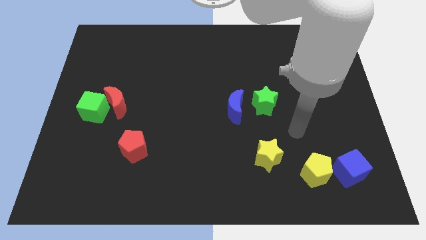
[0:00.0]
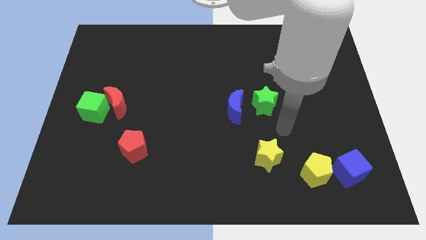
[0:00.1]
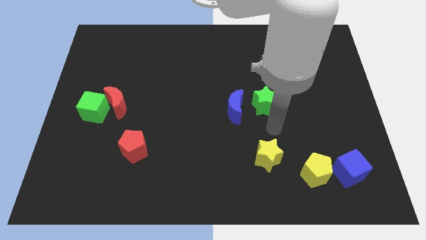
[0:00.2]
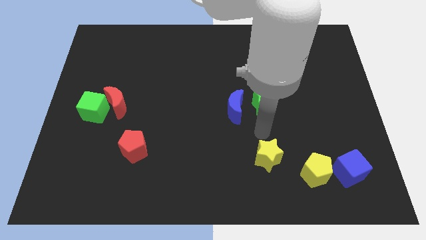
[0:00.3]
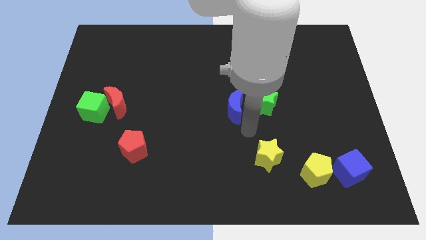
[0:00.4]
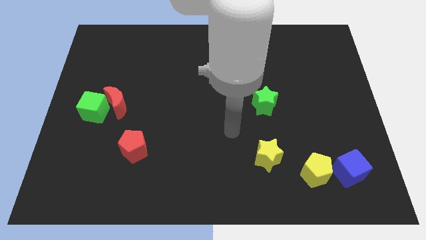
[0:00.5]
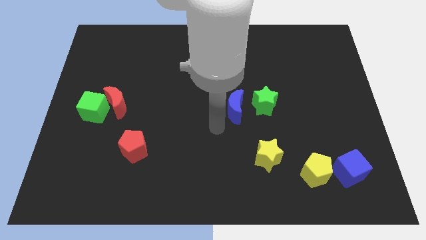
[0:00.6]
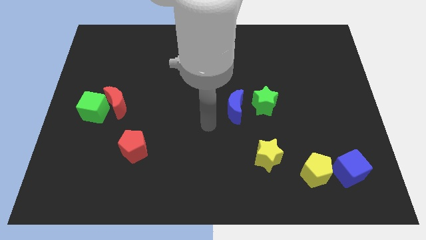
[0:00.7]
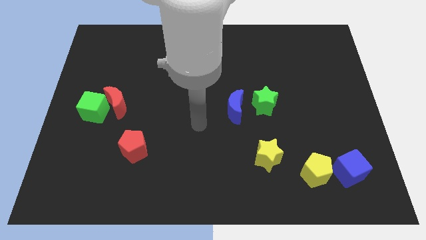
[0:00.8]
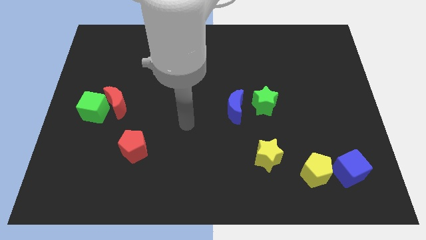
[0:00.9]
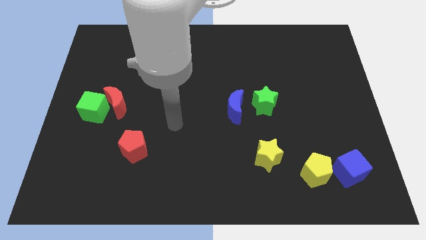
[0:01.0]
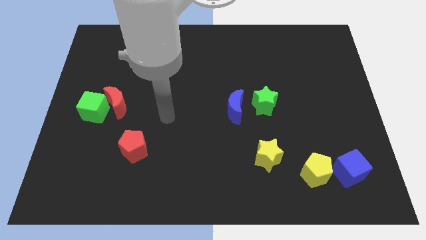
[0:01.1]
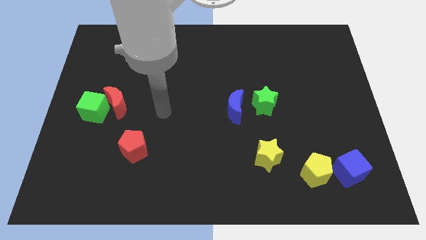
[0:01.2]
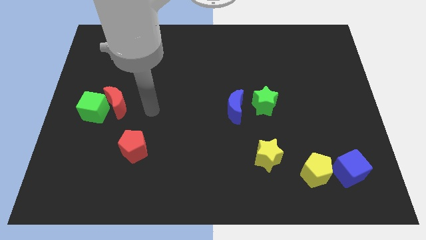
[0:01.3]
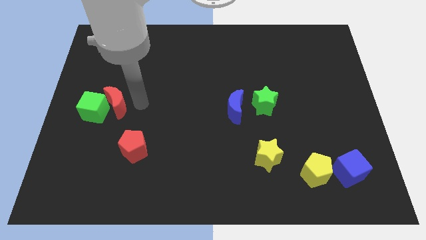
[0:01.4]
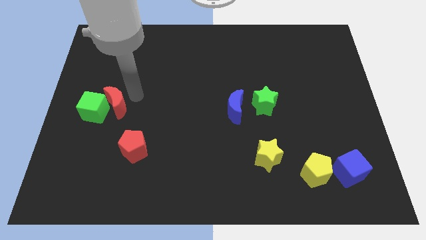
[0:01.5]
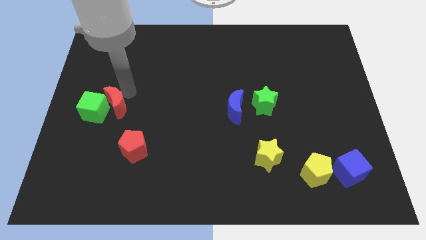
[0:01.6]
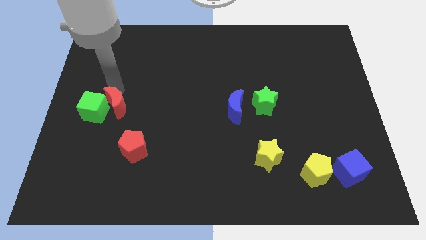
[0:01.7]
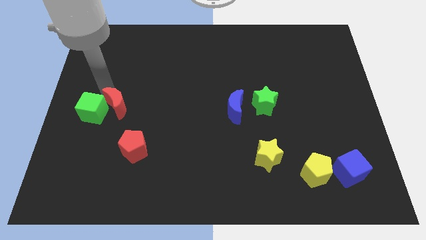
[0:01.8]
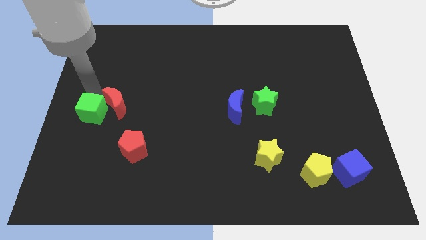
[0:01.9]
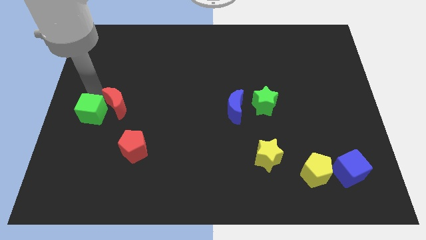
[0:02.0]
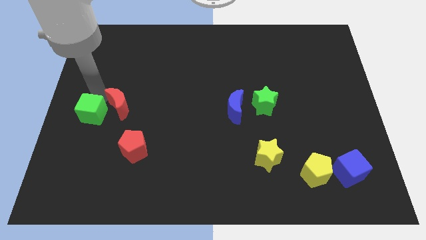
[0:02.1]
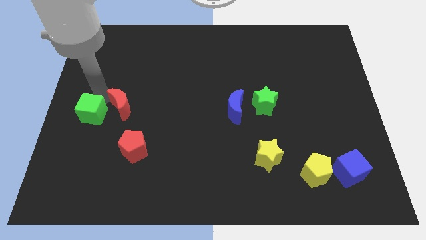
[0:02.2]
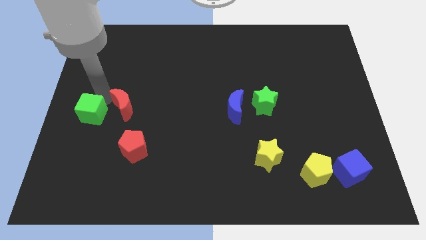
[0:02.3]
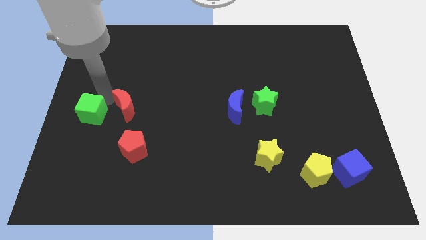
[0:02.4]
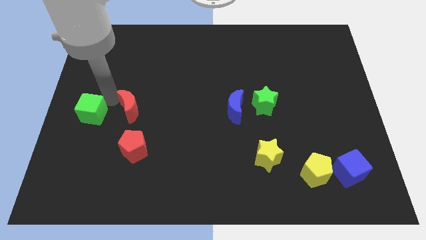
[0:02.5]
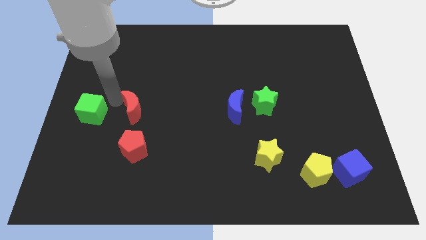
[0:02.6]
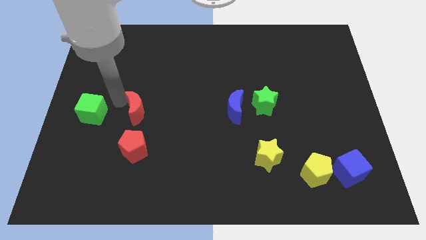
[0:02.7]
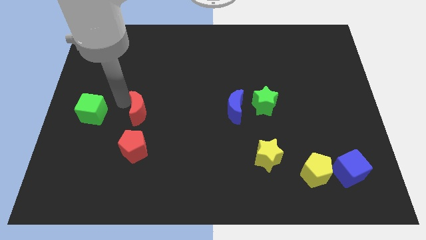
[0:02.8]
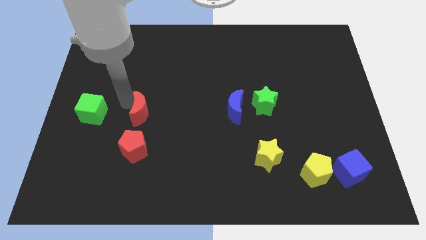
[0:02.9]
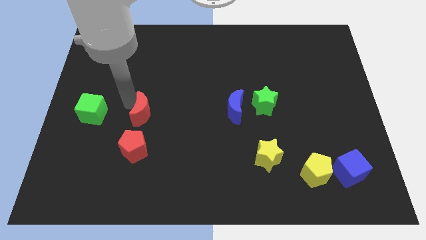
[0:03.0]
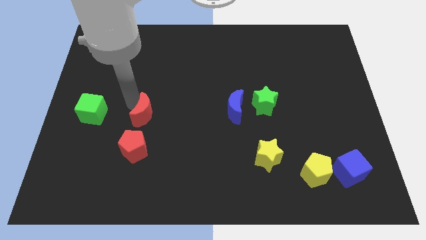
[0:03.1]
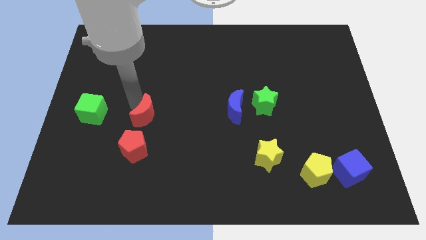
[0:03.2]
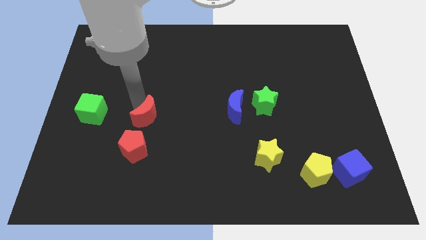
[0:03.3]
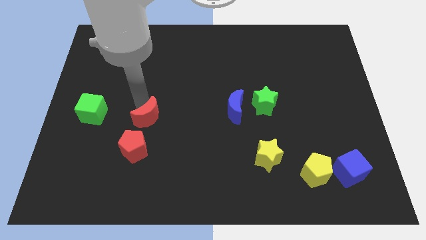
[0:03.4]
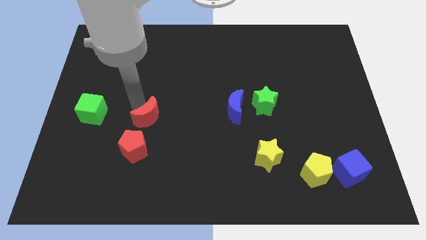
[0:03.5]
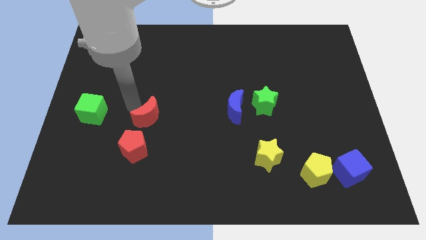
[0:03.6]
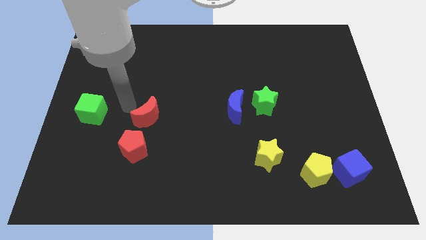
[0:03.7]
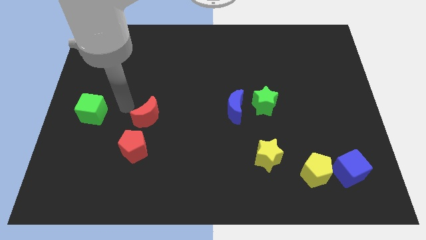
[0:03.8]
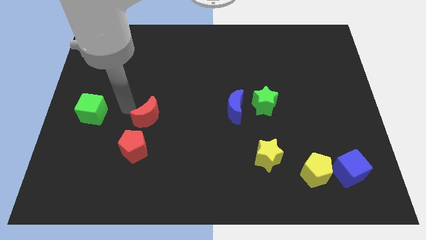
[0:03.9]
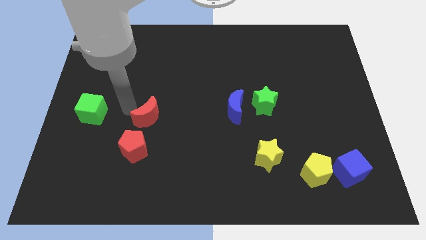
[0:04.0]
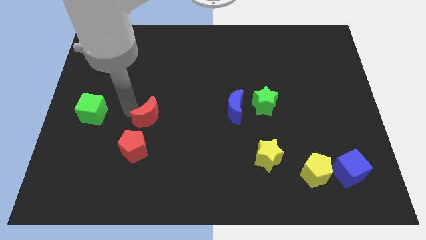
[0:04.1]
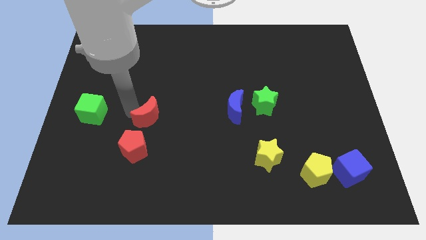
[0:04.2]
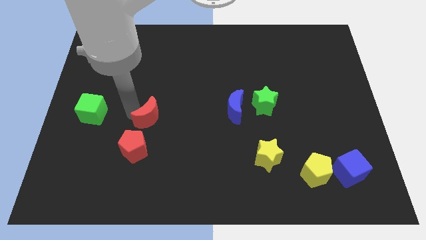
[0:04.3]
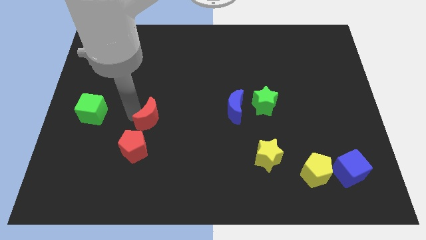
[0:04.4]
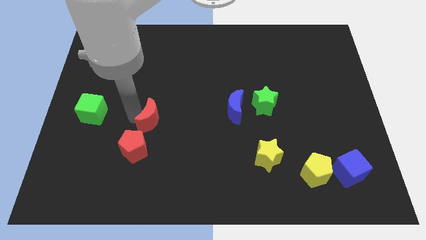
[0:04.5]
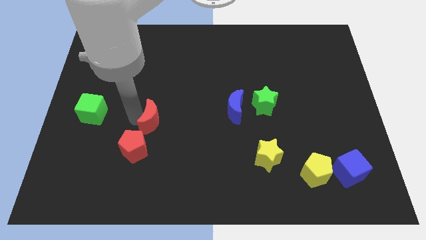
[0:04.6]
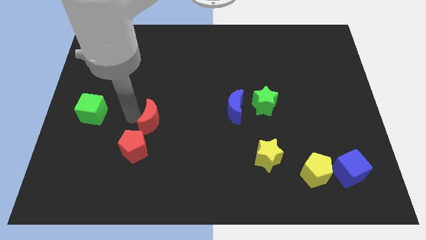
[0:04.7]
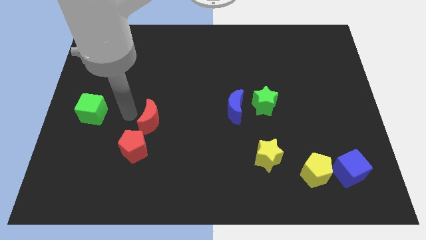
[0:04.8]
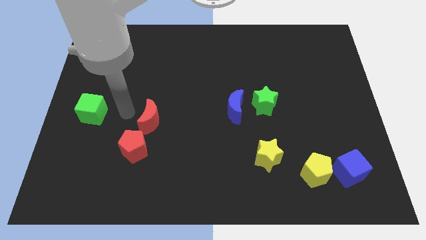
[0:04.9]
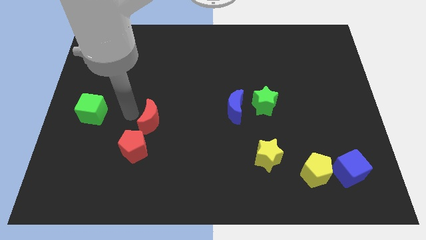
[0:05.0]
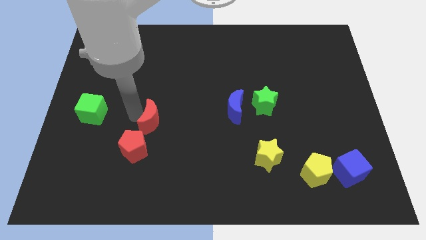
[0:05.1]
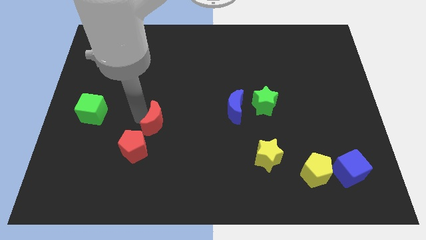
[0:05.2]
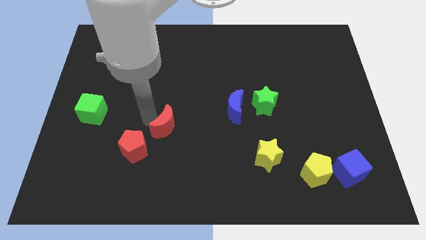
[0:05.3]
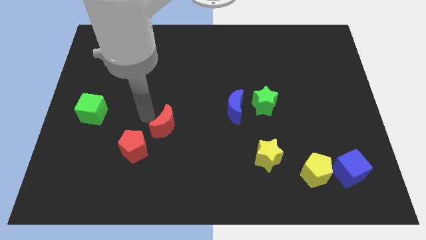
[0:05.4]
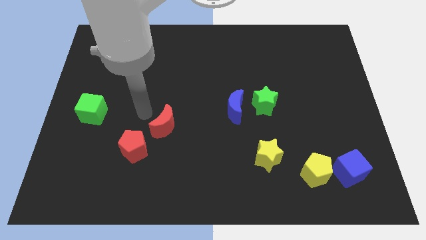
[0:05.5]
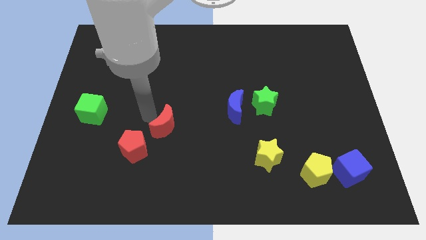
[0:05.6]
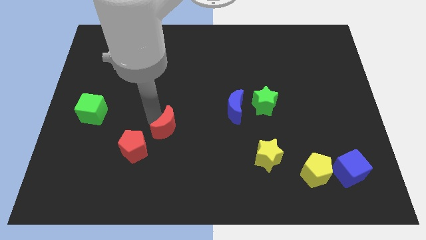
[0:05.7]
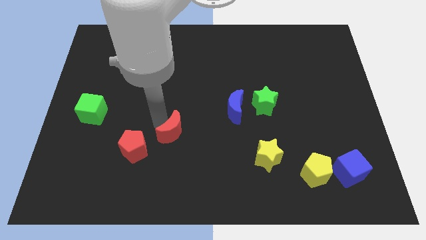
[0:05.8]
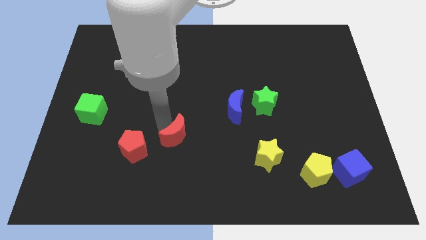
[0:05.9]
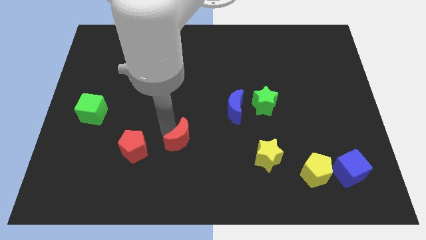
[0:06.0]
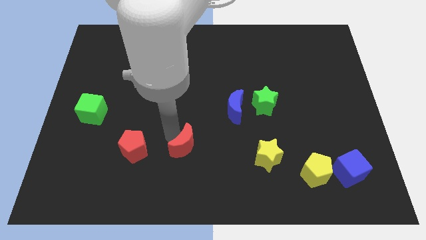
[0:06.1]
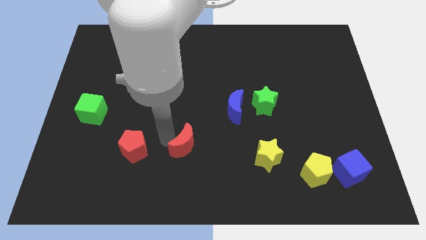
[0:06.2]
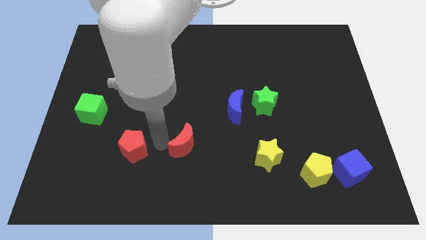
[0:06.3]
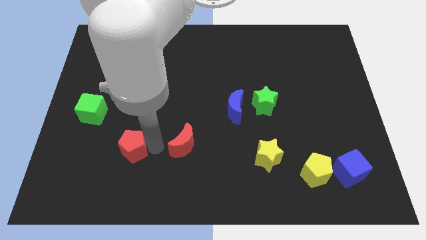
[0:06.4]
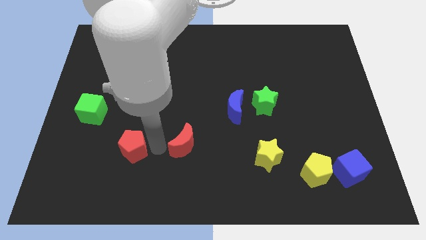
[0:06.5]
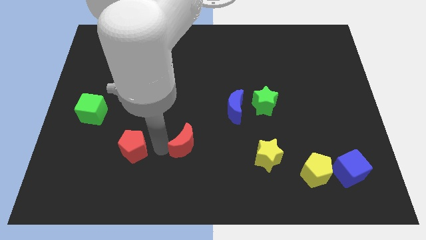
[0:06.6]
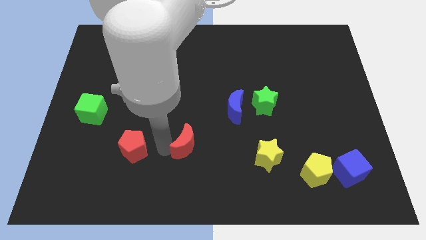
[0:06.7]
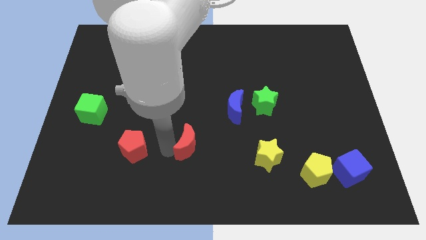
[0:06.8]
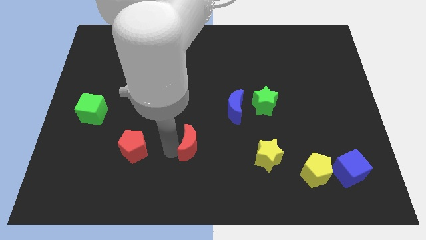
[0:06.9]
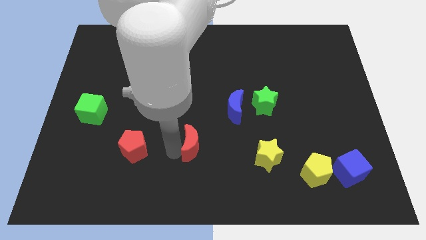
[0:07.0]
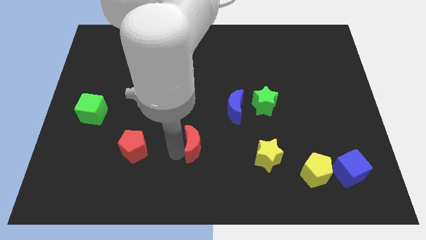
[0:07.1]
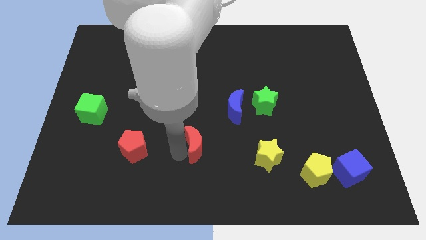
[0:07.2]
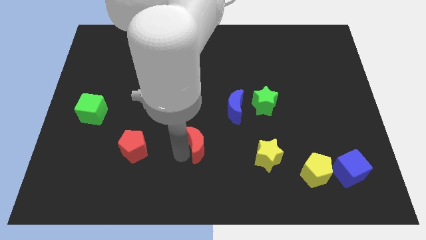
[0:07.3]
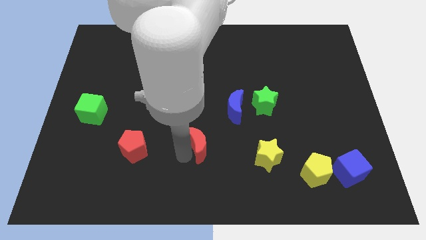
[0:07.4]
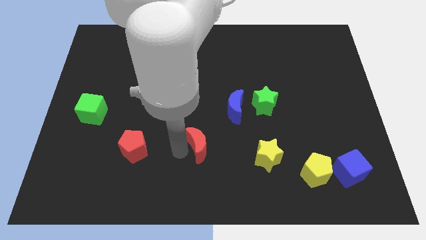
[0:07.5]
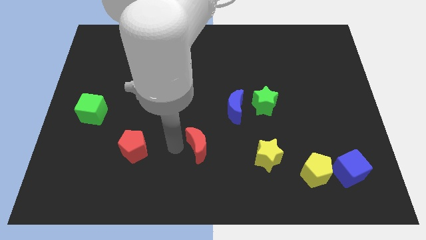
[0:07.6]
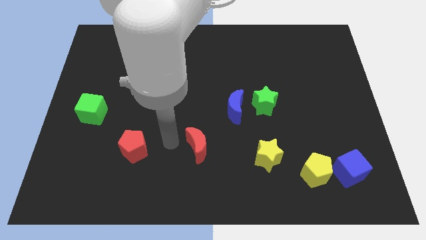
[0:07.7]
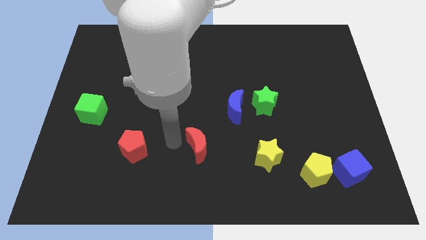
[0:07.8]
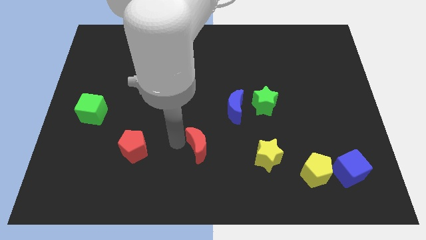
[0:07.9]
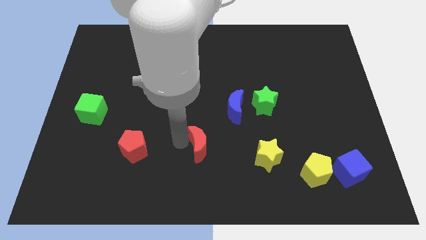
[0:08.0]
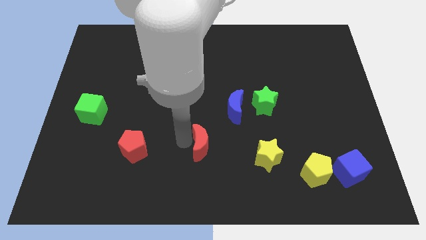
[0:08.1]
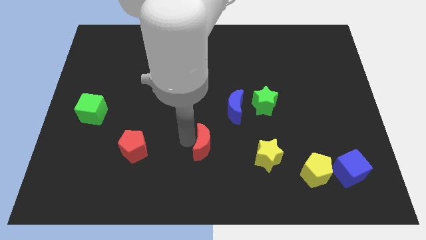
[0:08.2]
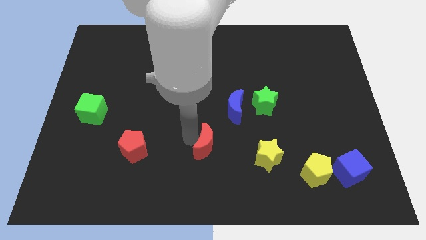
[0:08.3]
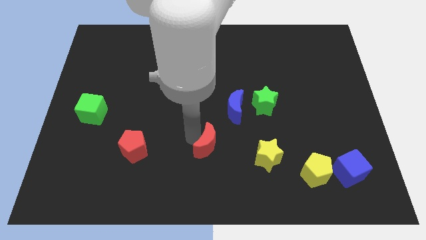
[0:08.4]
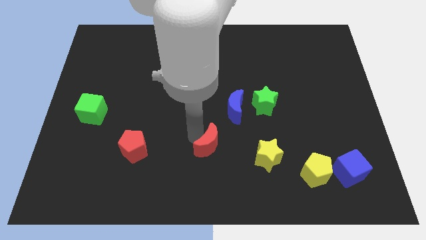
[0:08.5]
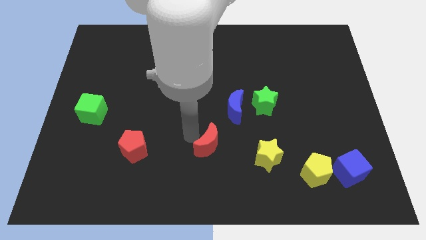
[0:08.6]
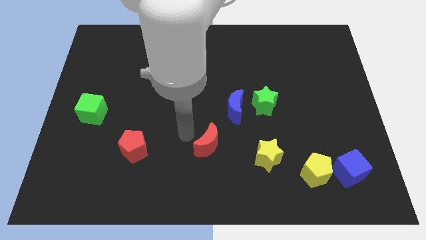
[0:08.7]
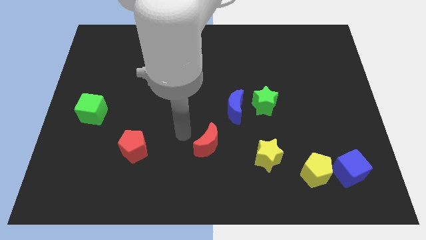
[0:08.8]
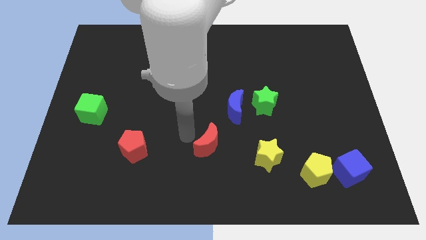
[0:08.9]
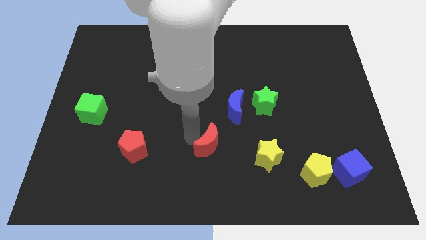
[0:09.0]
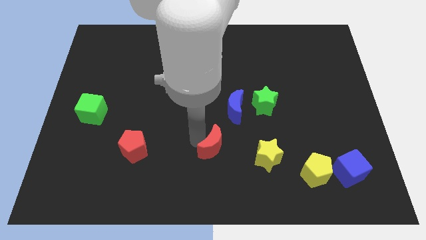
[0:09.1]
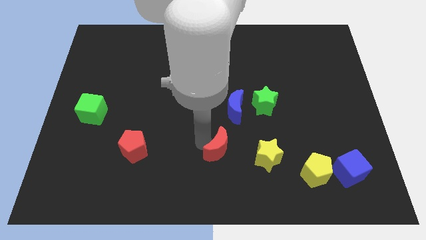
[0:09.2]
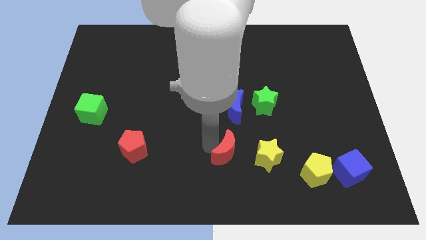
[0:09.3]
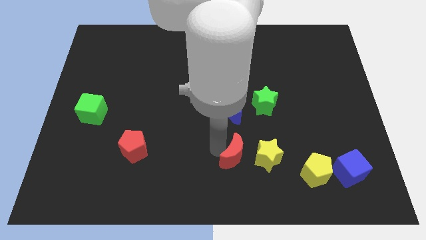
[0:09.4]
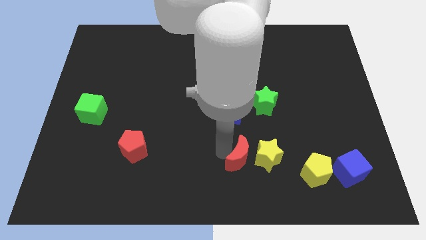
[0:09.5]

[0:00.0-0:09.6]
put the red moon towards the yellow star
